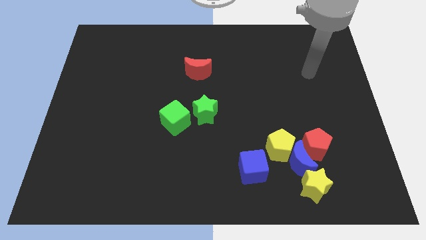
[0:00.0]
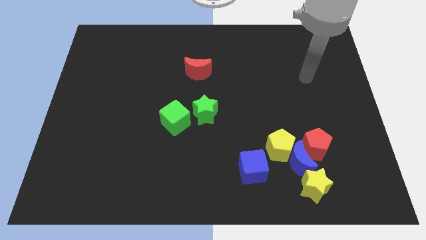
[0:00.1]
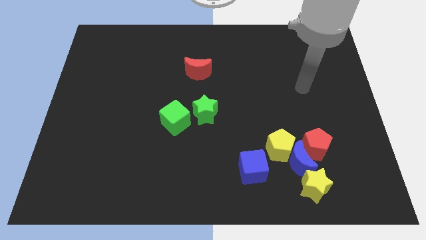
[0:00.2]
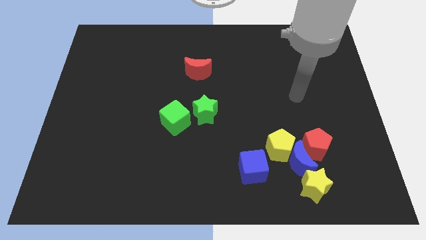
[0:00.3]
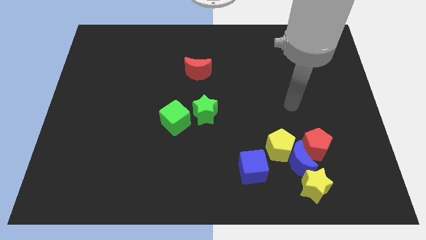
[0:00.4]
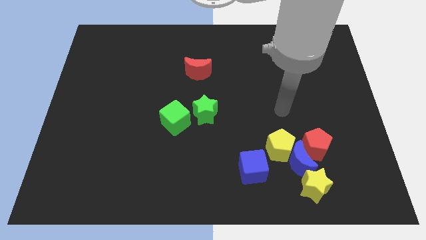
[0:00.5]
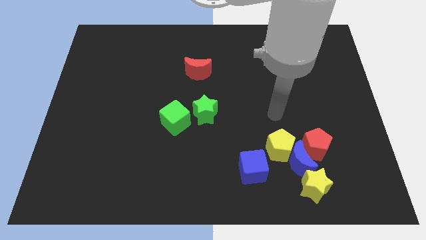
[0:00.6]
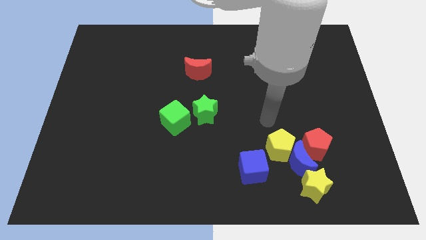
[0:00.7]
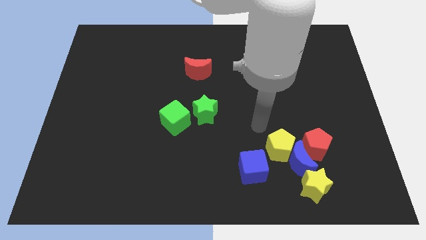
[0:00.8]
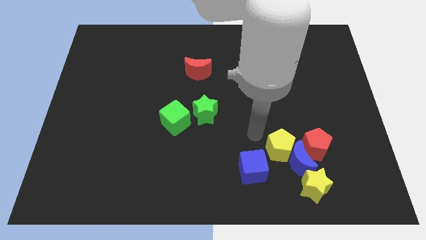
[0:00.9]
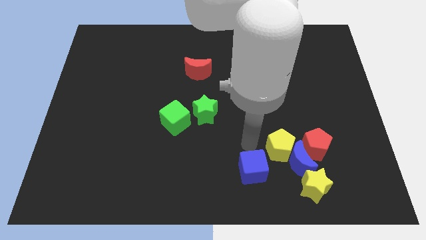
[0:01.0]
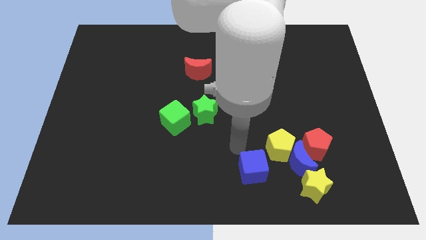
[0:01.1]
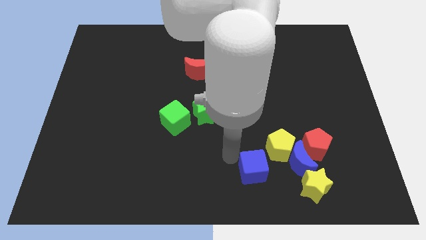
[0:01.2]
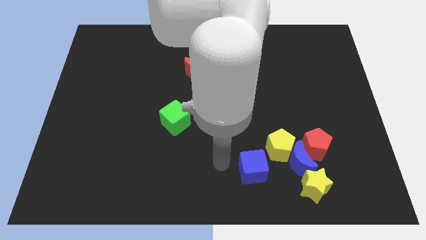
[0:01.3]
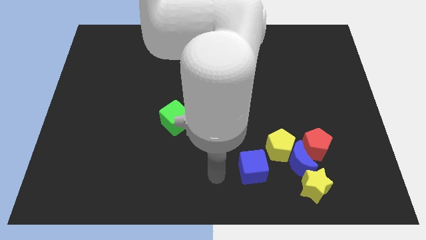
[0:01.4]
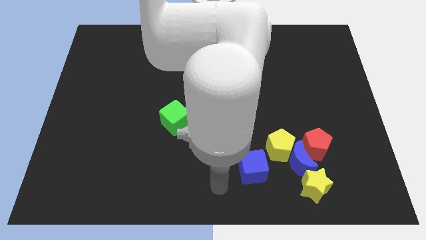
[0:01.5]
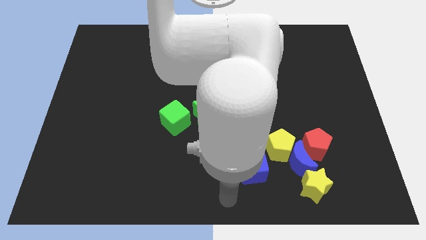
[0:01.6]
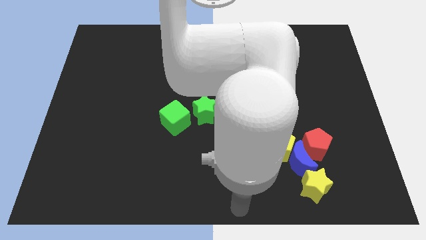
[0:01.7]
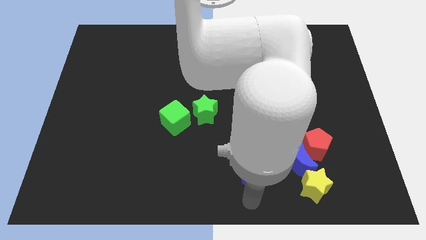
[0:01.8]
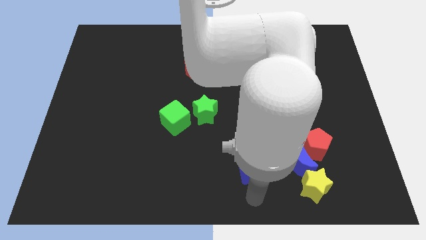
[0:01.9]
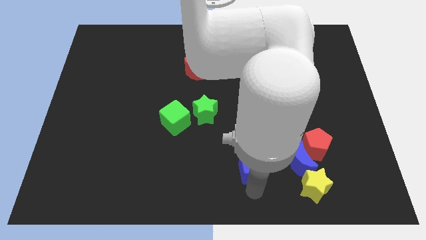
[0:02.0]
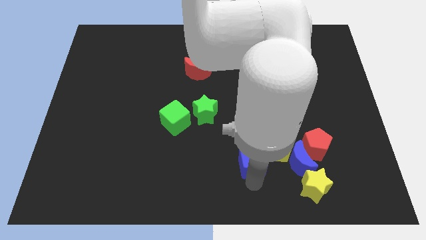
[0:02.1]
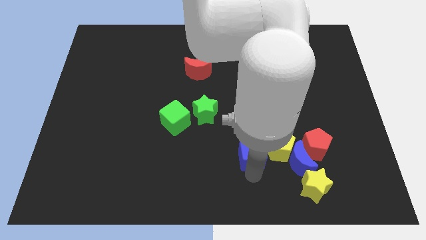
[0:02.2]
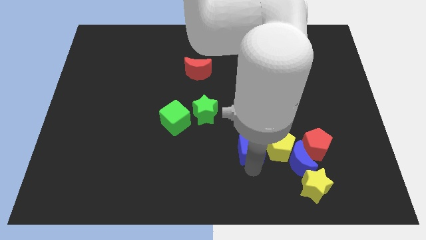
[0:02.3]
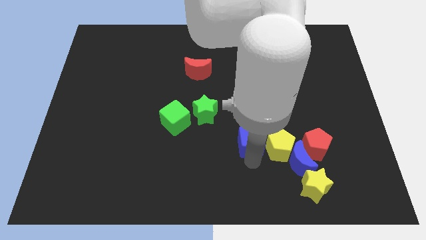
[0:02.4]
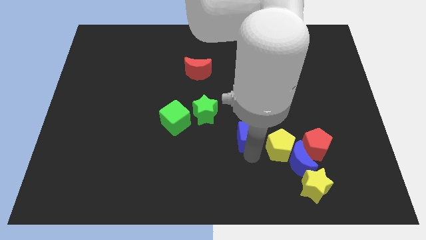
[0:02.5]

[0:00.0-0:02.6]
slide the blue cube a little bit up

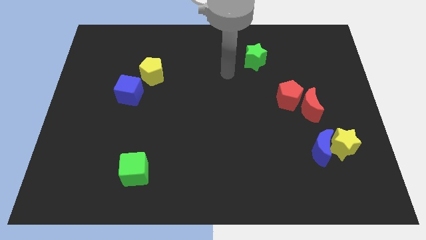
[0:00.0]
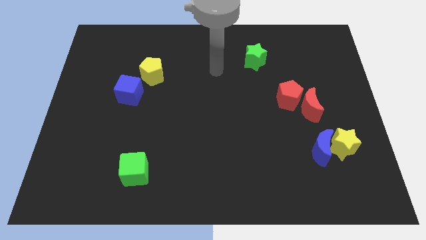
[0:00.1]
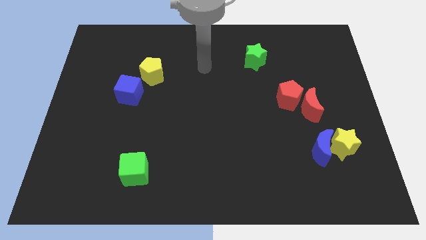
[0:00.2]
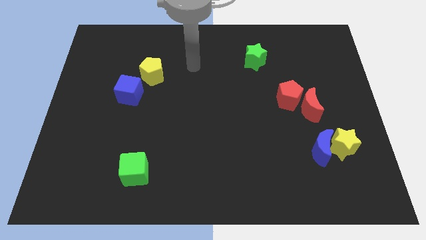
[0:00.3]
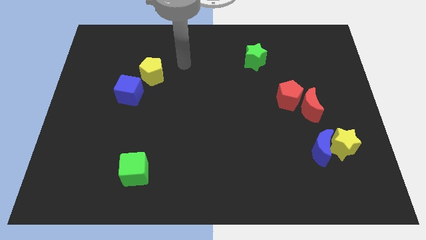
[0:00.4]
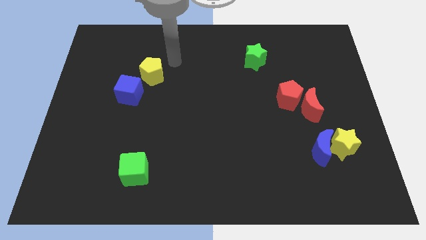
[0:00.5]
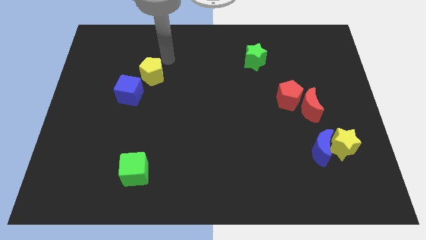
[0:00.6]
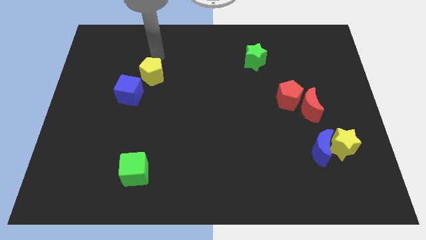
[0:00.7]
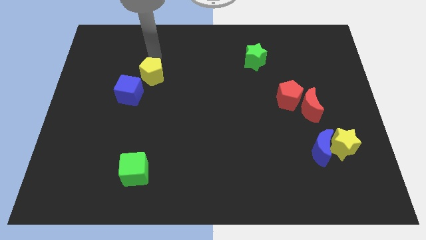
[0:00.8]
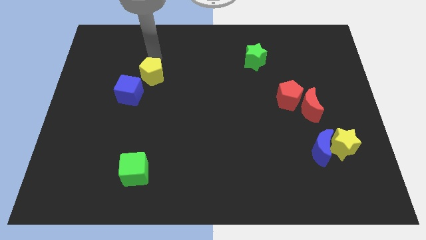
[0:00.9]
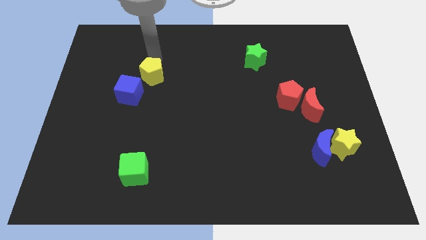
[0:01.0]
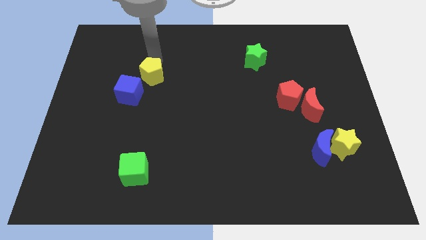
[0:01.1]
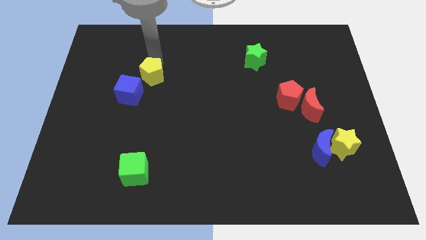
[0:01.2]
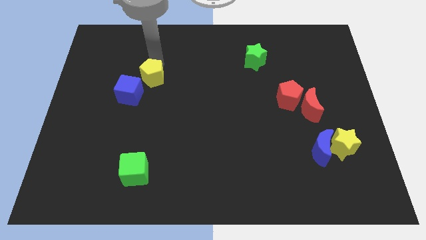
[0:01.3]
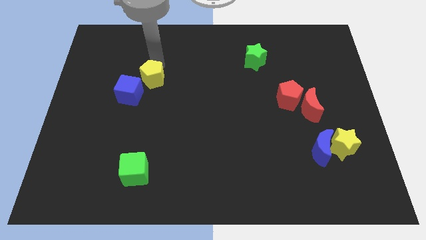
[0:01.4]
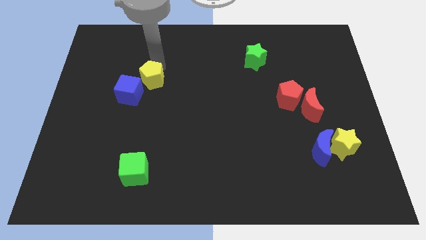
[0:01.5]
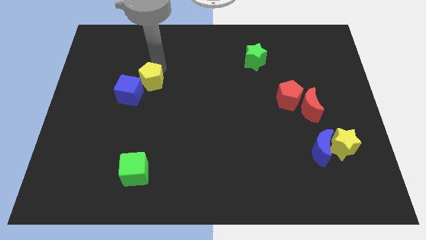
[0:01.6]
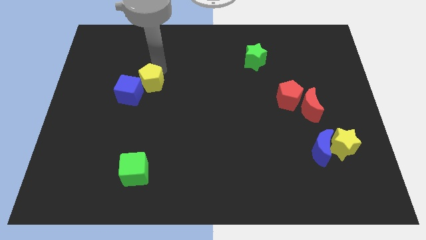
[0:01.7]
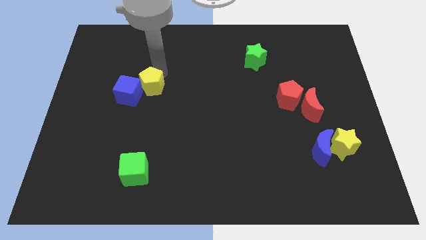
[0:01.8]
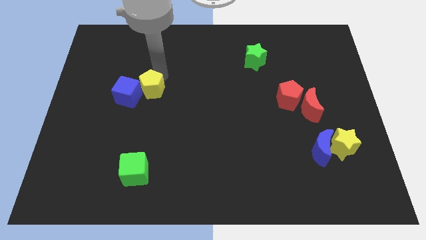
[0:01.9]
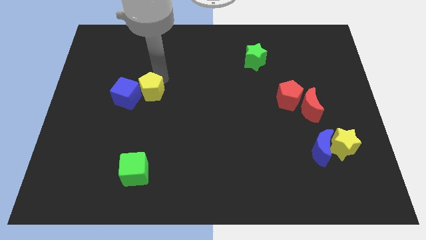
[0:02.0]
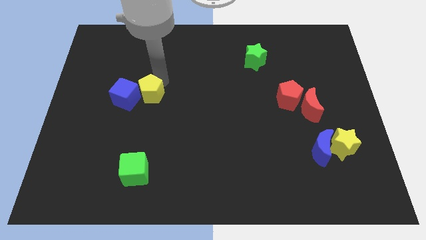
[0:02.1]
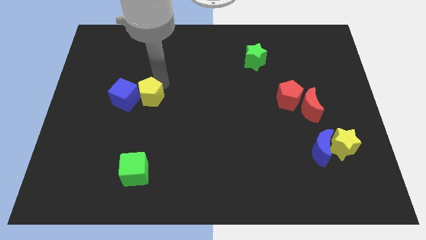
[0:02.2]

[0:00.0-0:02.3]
slightly move the yellow pentagon downwards

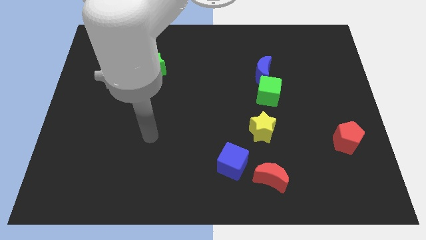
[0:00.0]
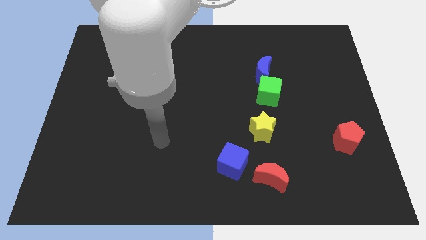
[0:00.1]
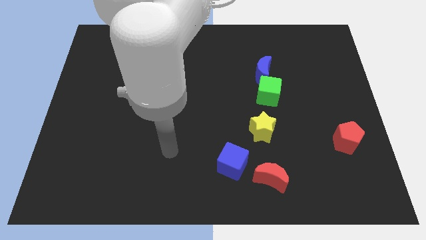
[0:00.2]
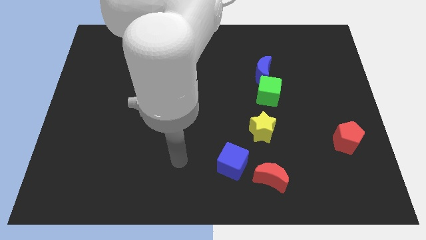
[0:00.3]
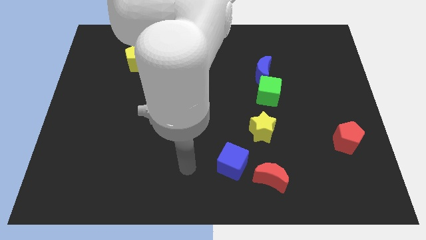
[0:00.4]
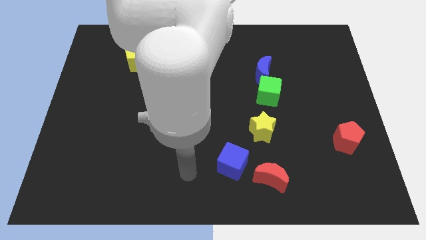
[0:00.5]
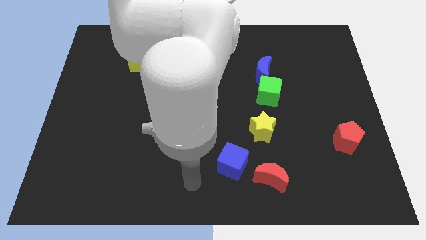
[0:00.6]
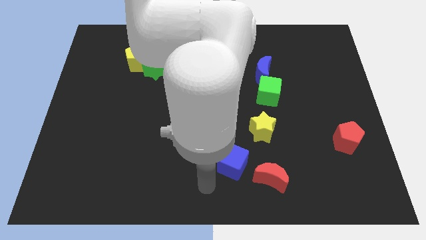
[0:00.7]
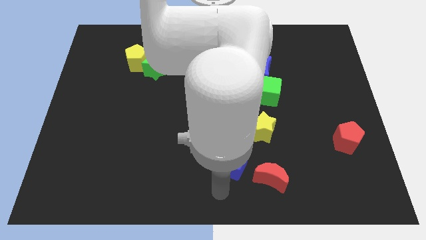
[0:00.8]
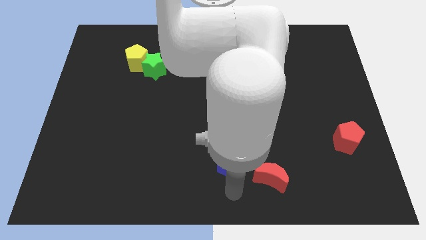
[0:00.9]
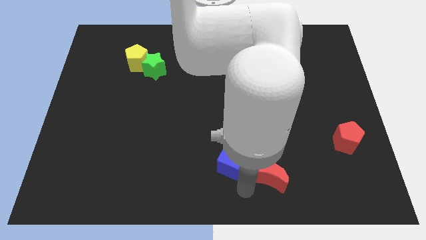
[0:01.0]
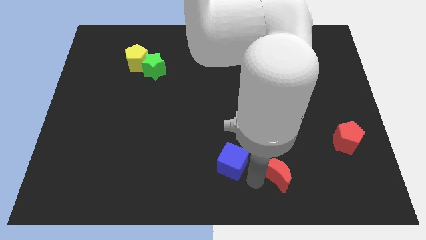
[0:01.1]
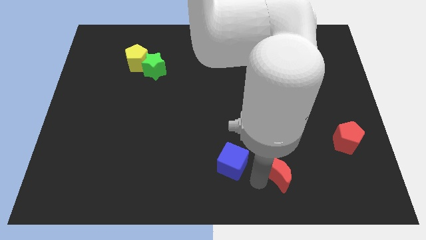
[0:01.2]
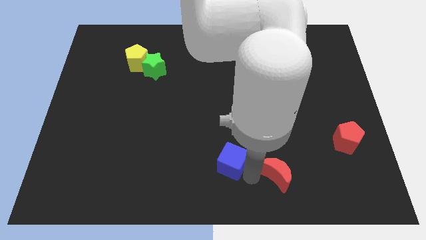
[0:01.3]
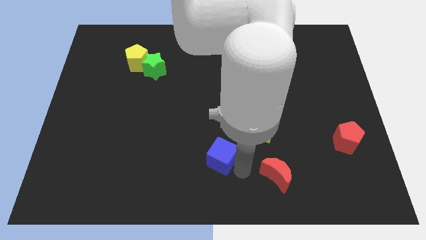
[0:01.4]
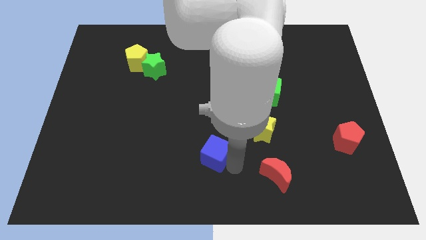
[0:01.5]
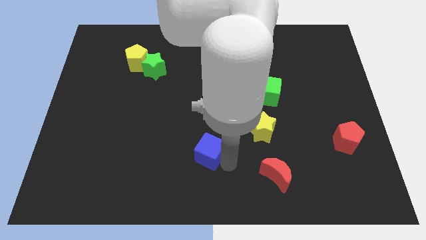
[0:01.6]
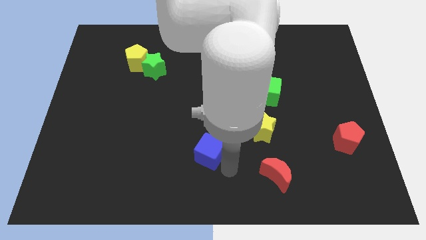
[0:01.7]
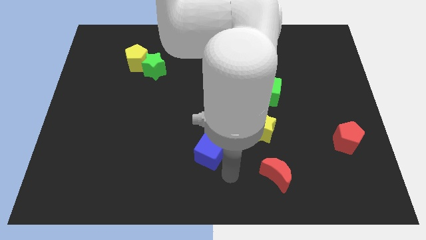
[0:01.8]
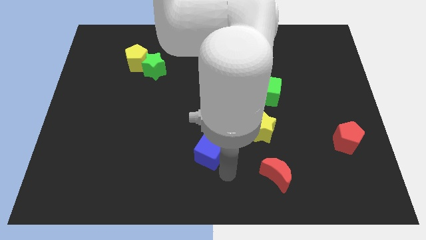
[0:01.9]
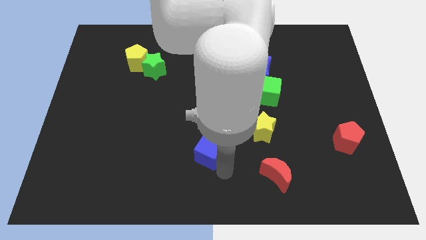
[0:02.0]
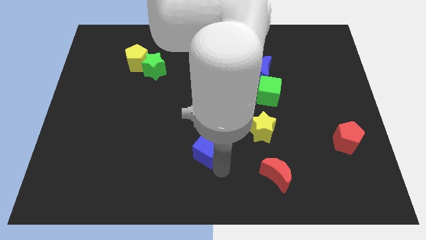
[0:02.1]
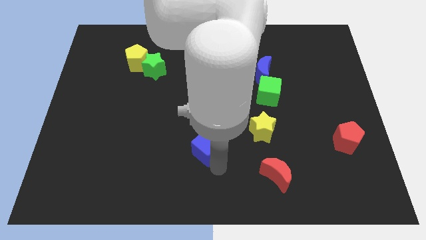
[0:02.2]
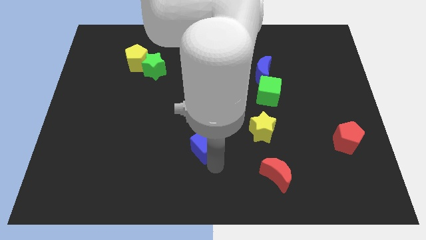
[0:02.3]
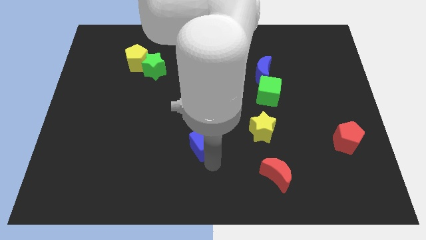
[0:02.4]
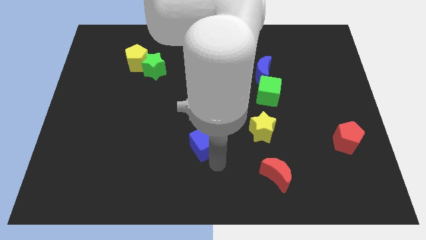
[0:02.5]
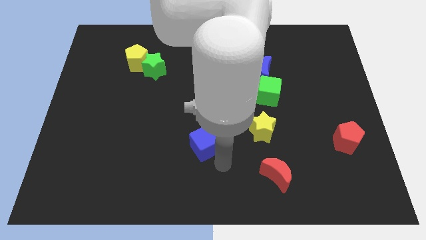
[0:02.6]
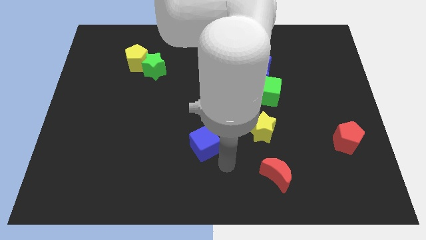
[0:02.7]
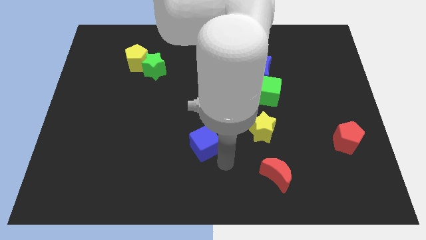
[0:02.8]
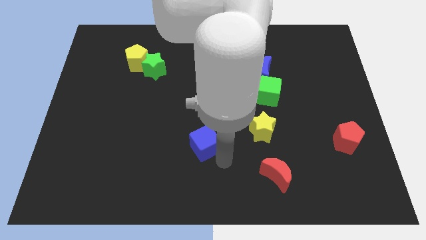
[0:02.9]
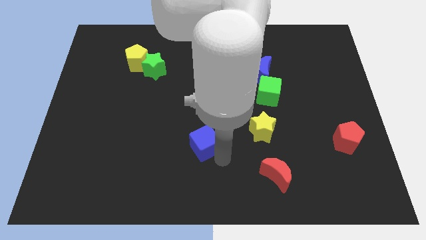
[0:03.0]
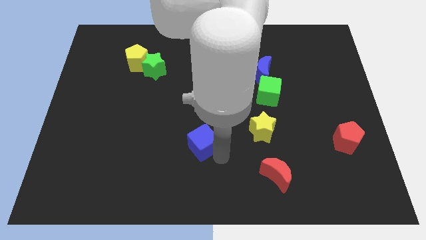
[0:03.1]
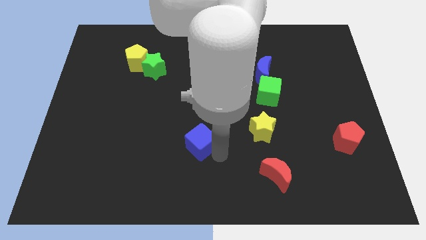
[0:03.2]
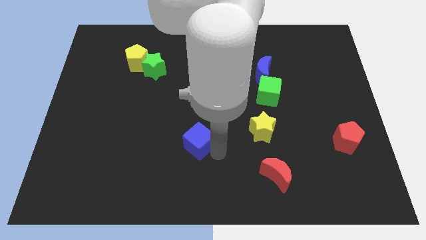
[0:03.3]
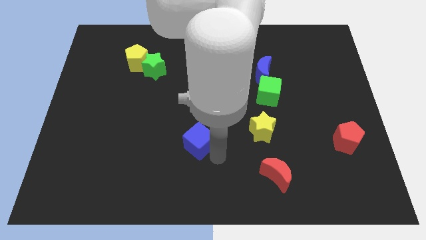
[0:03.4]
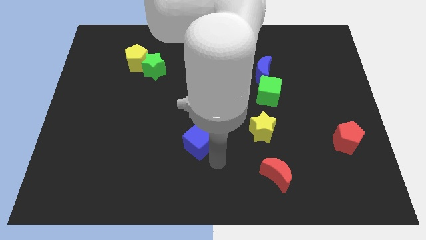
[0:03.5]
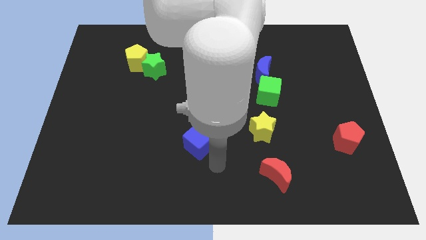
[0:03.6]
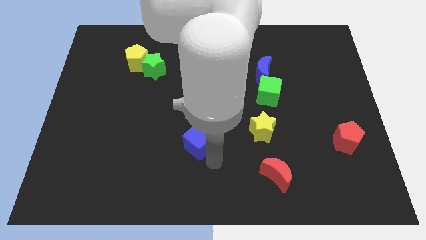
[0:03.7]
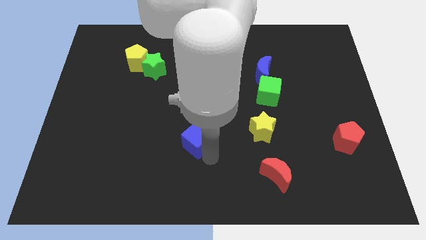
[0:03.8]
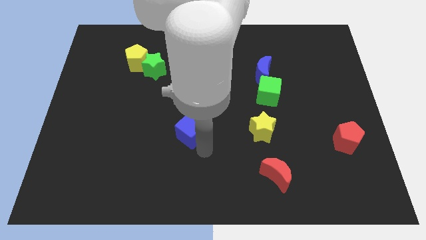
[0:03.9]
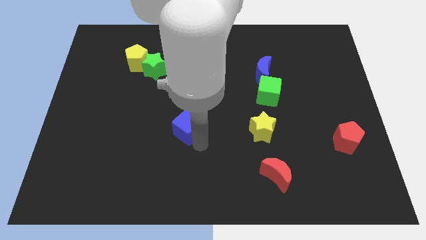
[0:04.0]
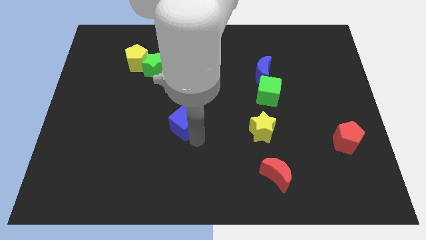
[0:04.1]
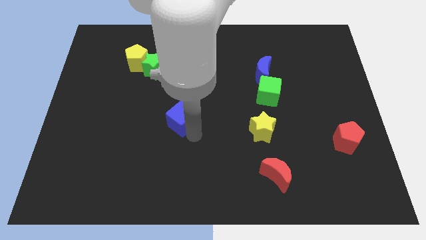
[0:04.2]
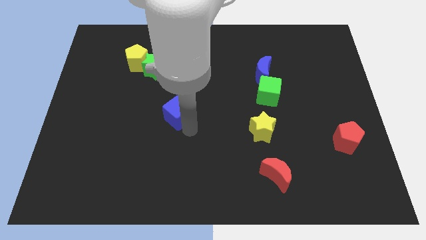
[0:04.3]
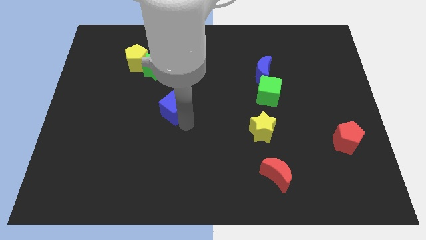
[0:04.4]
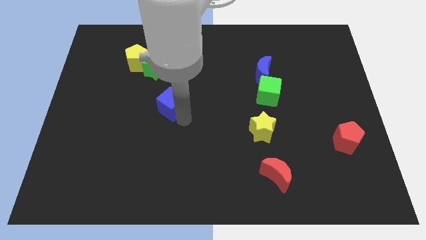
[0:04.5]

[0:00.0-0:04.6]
slide the blue cube up and to the left
